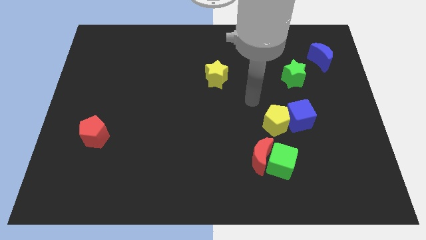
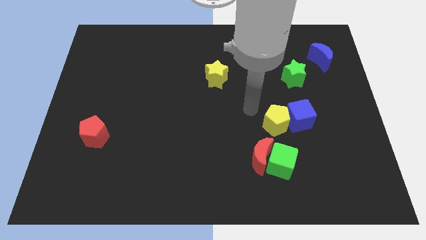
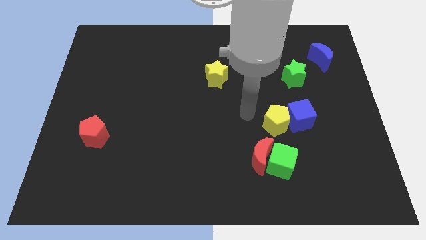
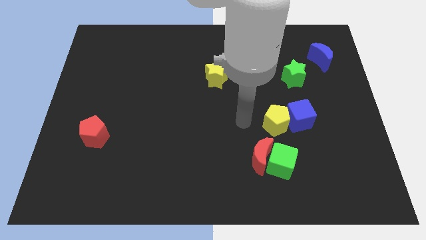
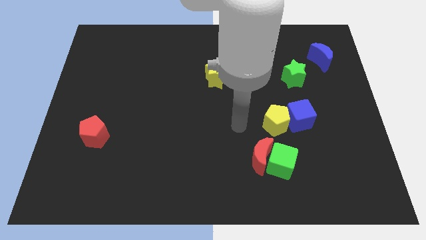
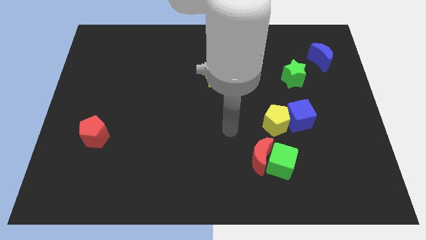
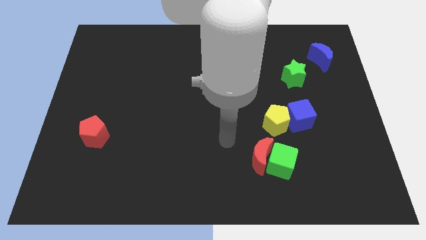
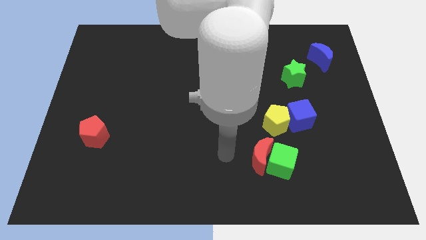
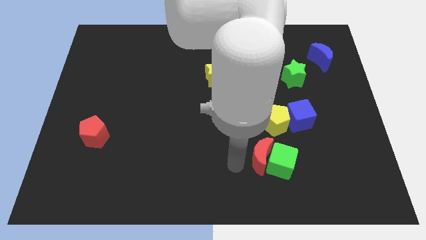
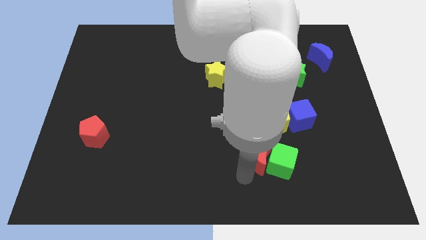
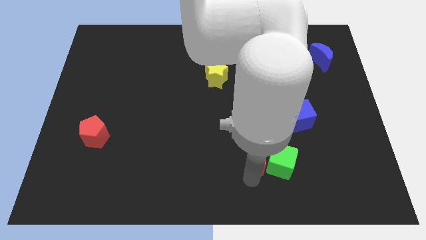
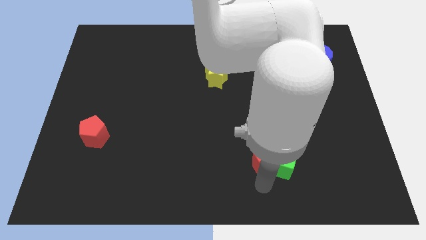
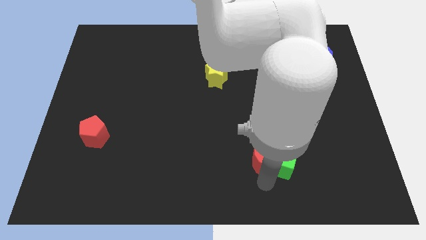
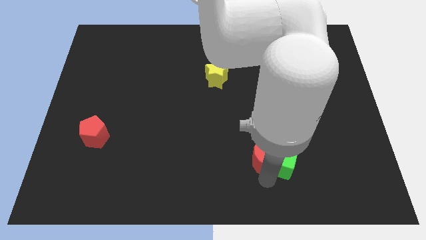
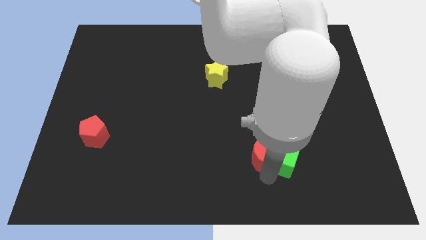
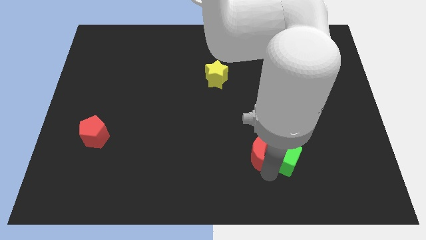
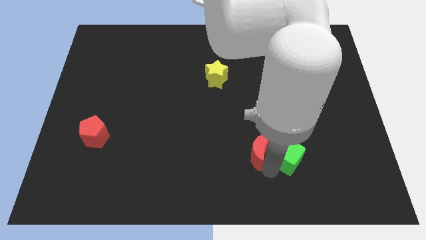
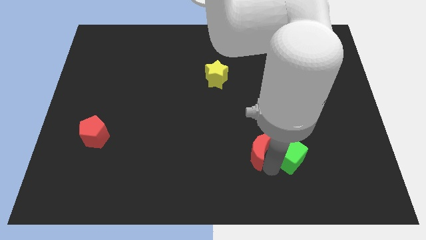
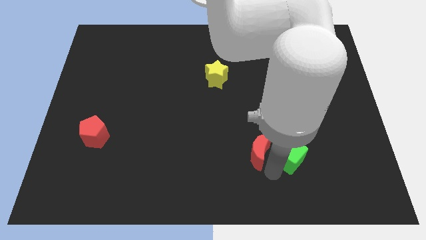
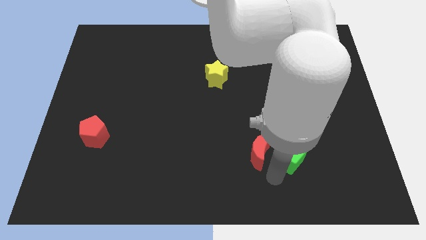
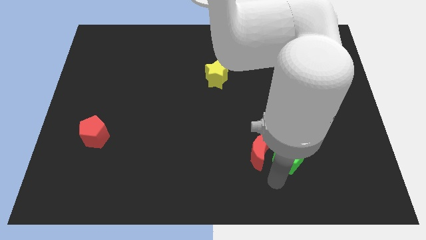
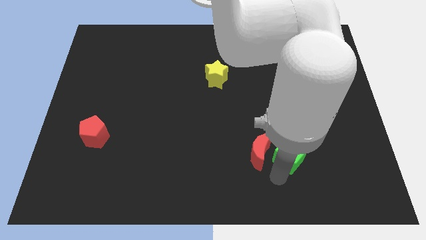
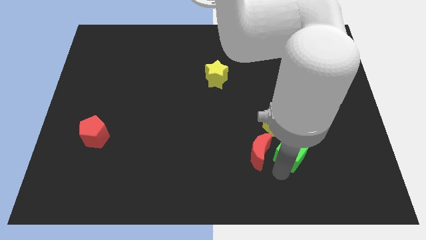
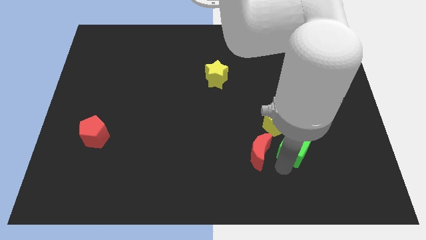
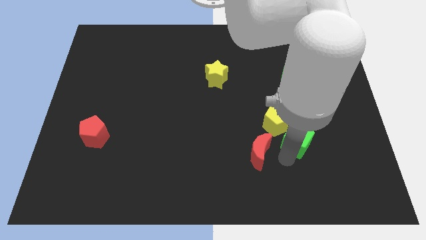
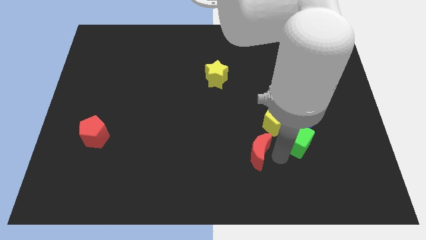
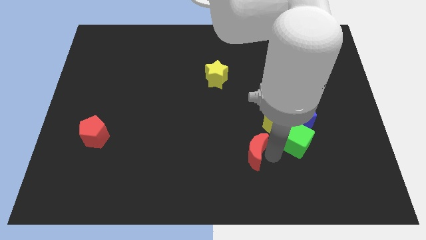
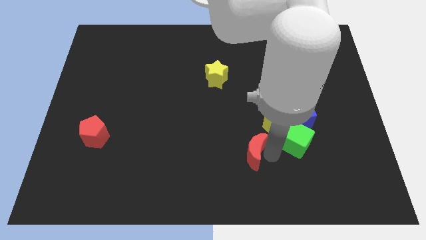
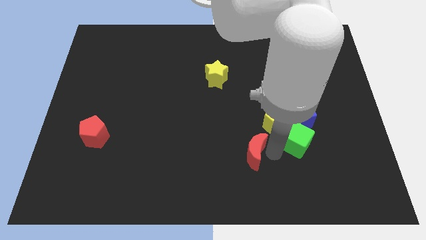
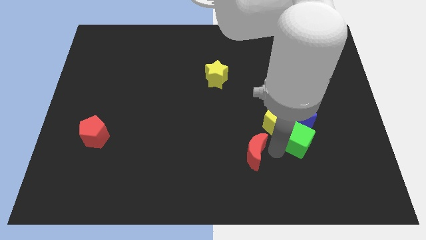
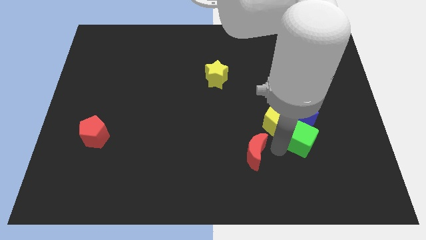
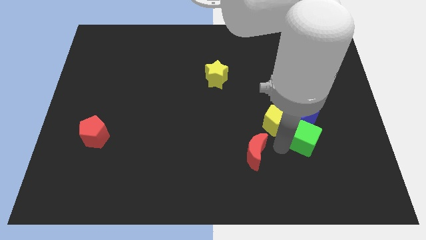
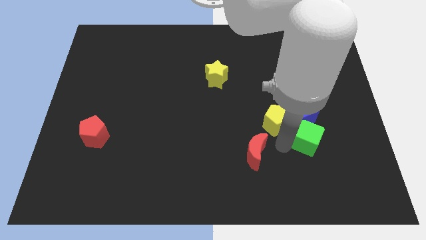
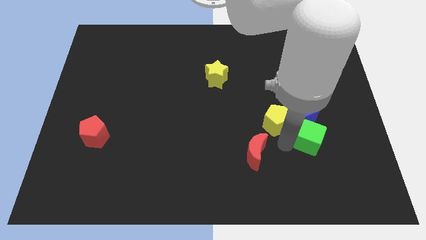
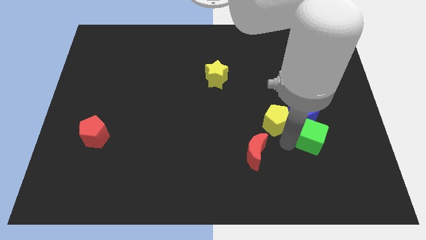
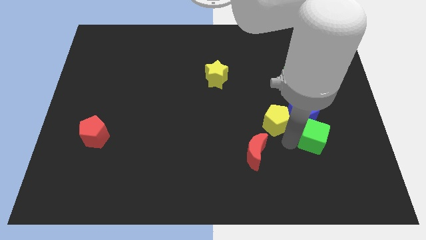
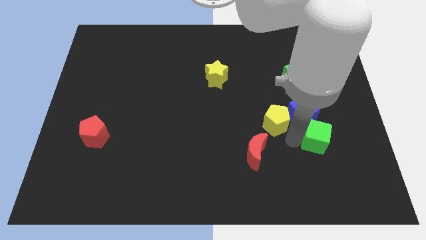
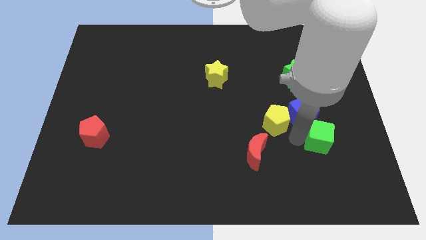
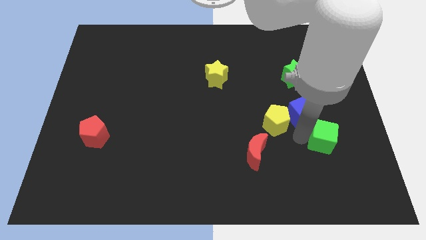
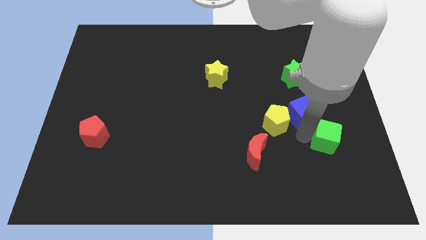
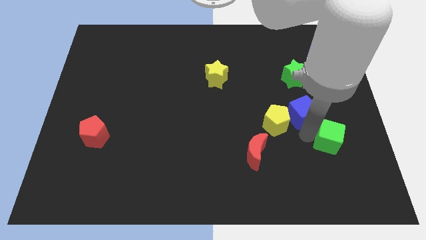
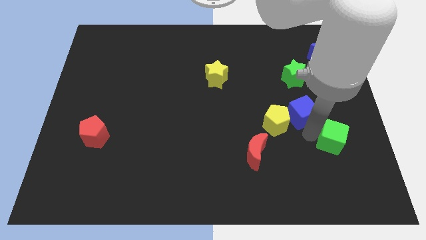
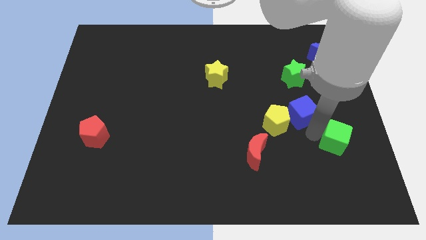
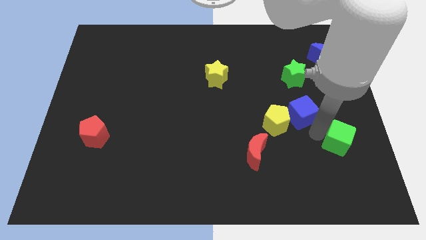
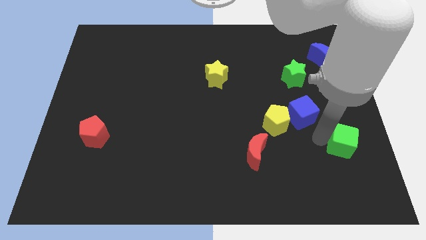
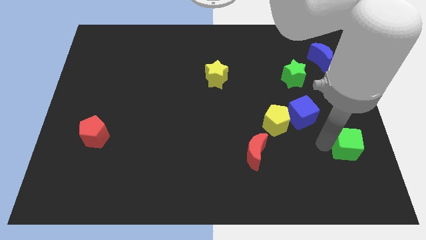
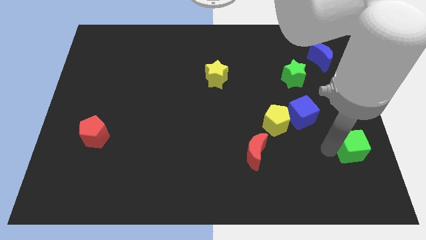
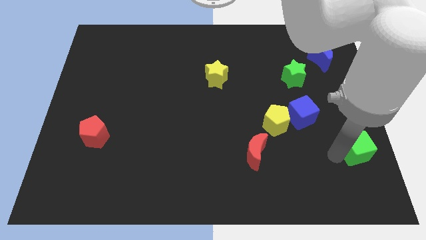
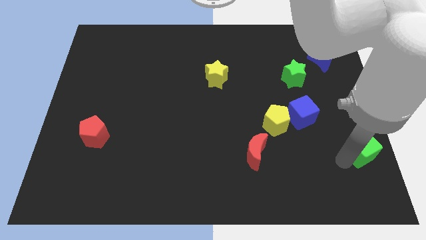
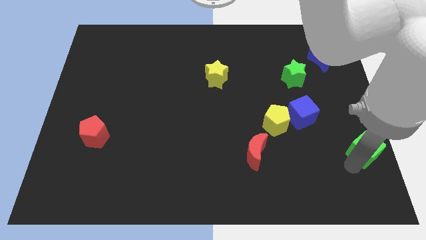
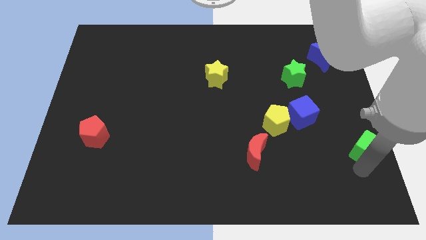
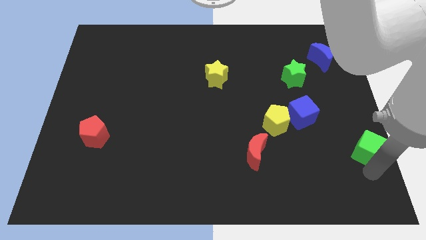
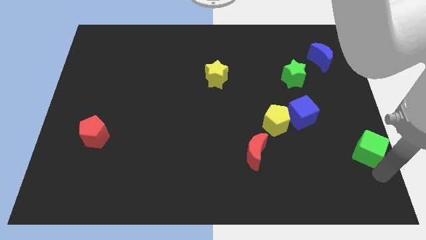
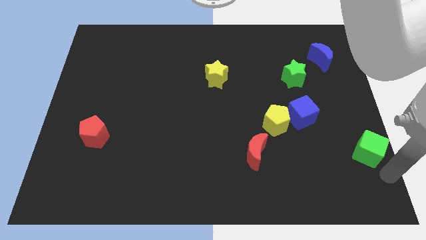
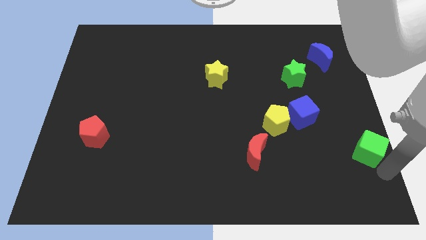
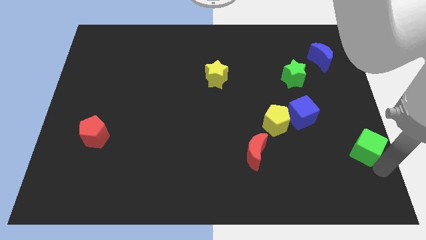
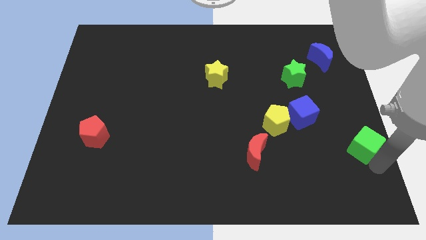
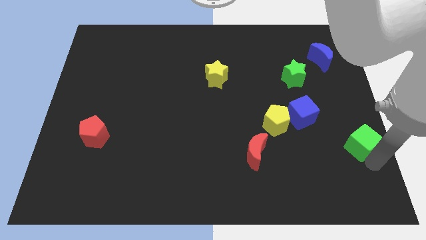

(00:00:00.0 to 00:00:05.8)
move the green cube to the right side

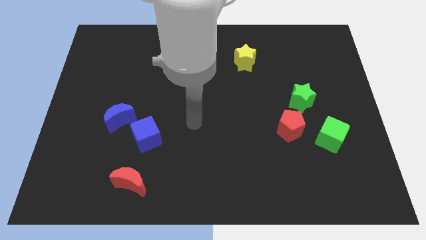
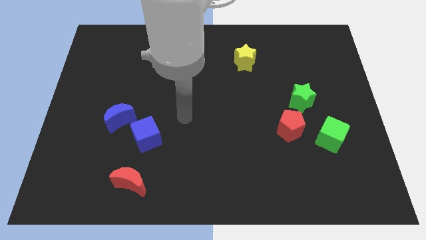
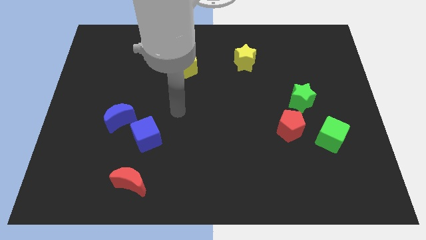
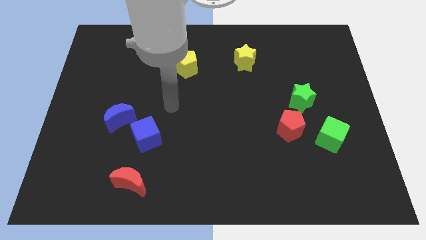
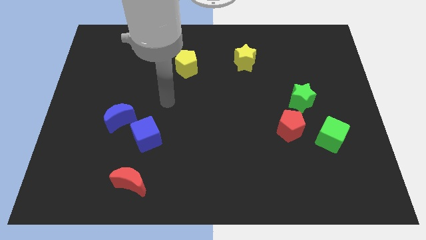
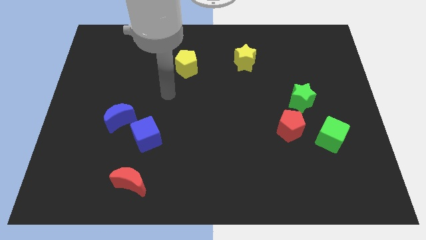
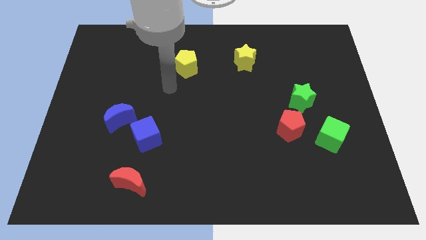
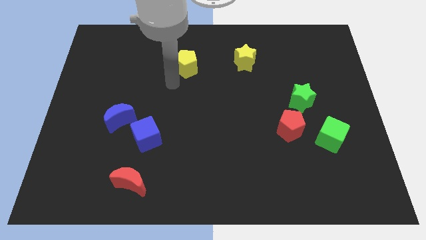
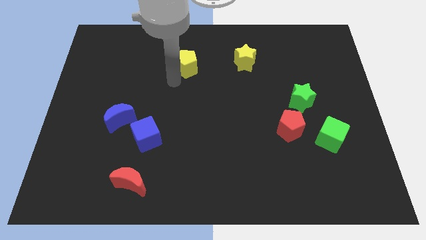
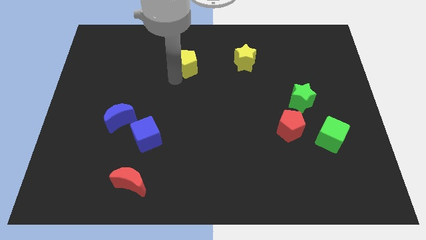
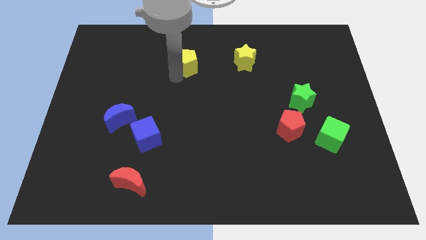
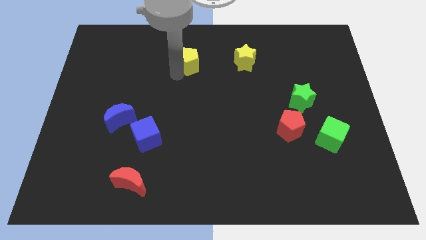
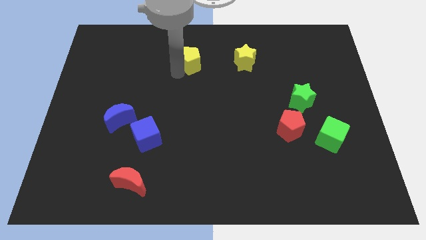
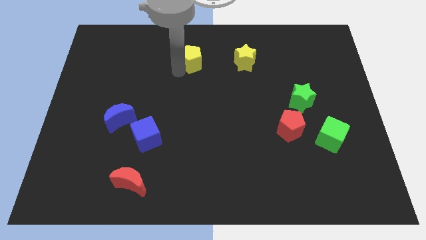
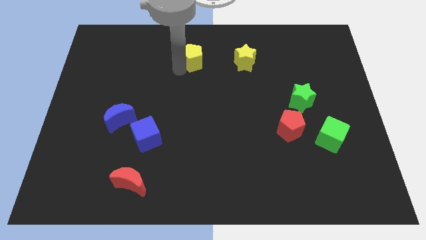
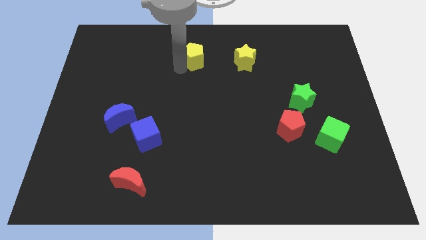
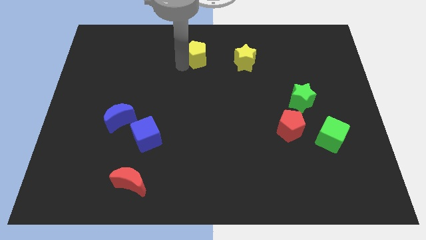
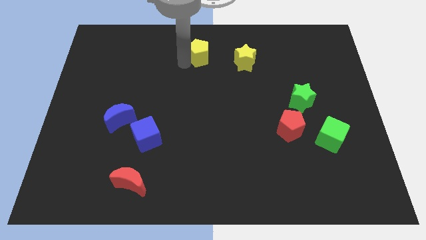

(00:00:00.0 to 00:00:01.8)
move the yellow pentagon to the top side
